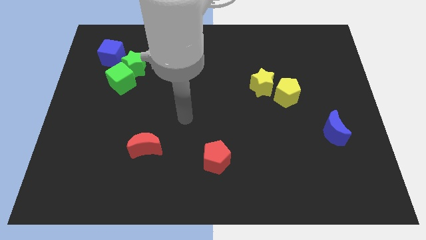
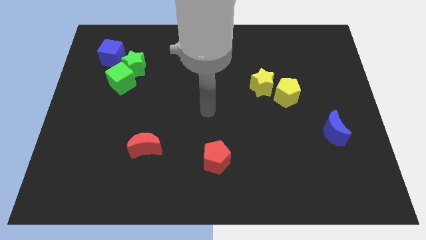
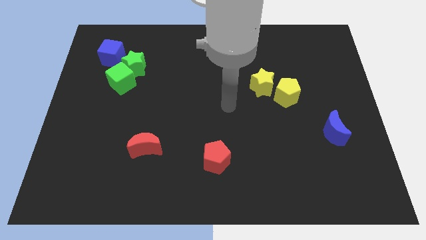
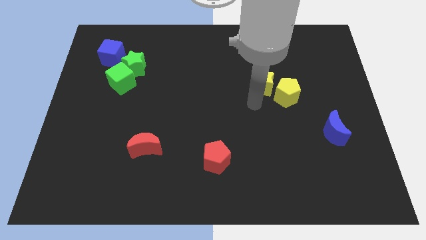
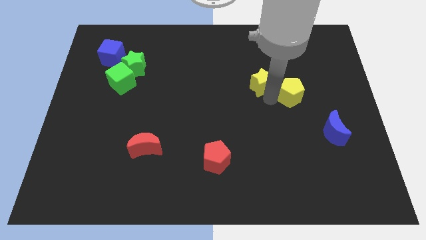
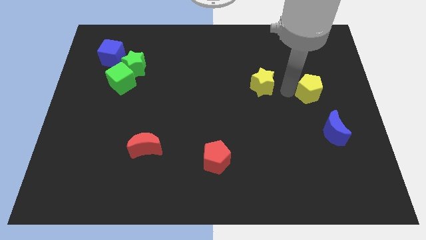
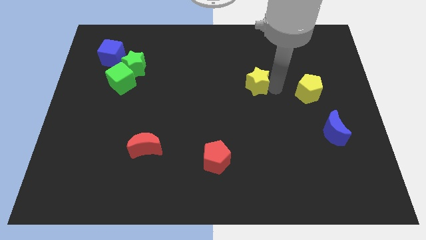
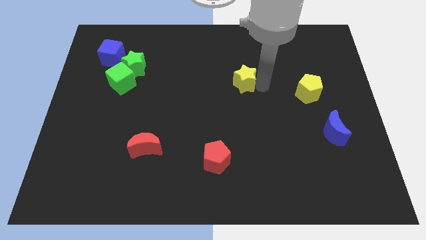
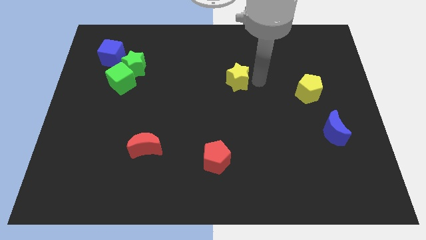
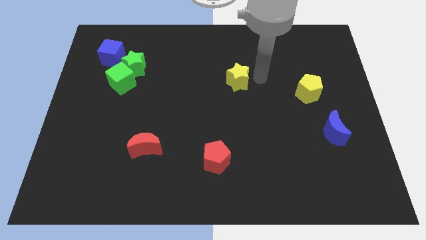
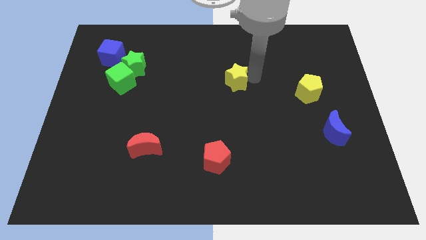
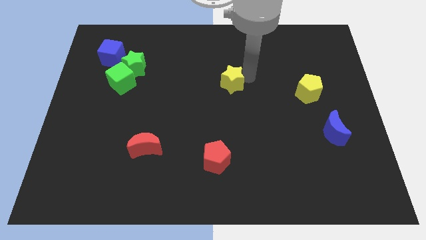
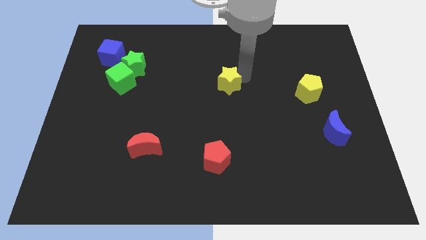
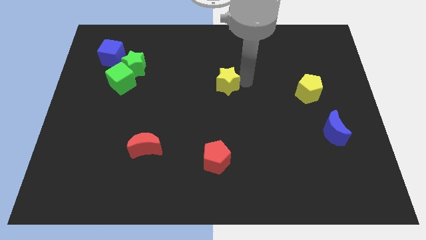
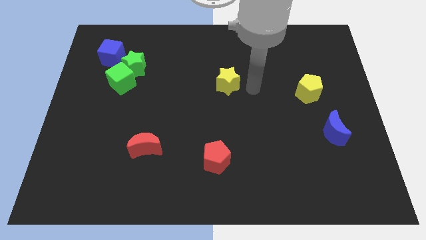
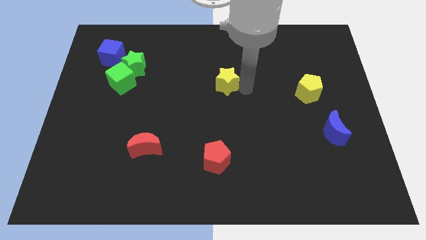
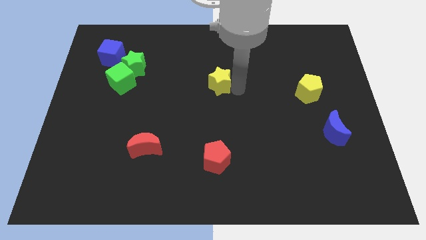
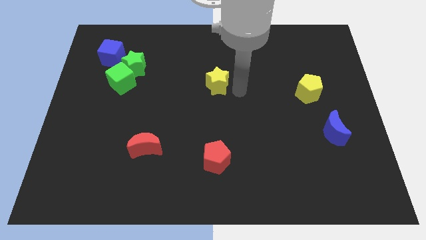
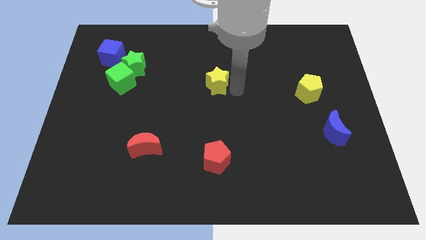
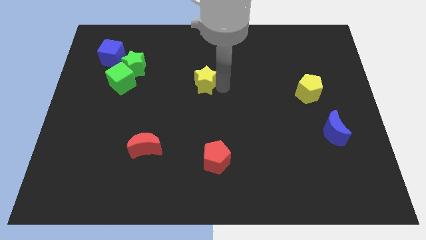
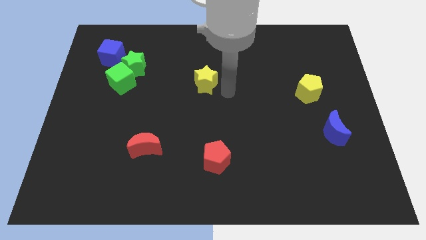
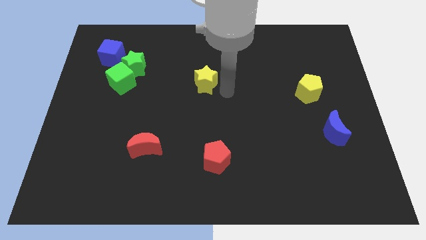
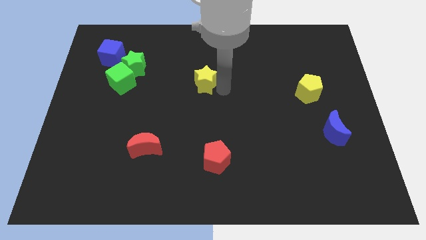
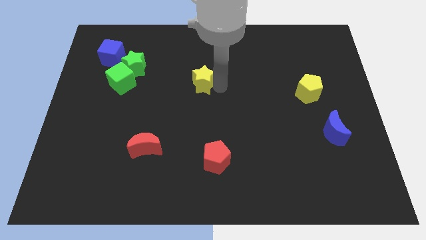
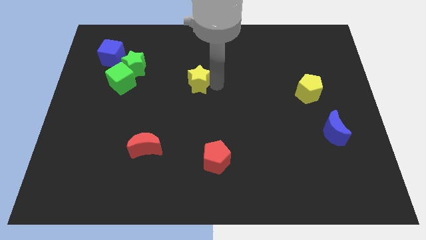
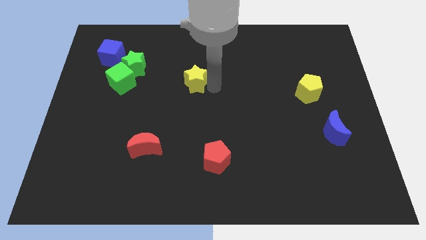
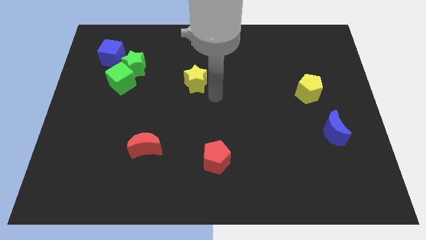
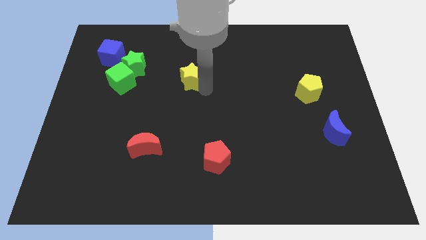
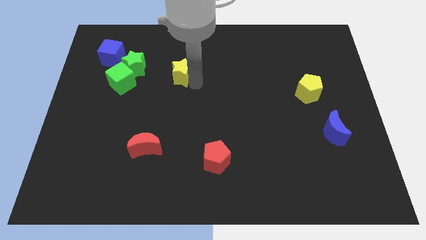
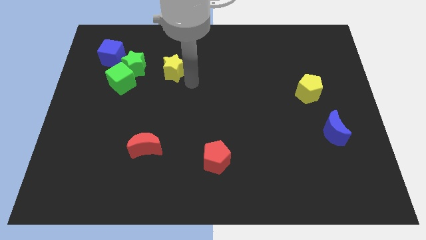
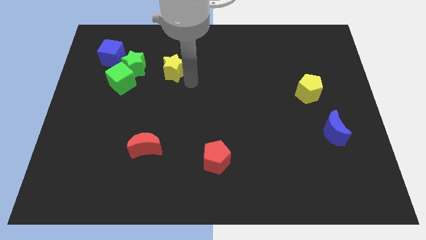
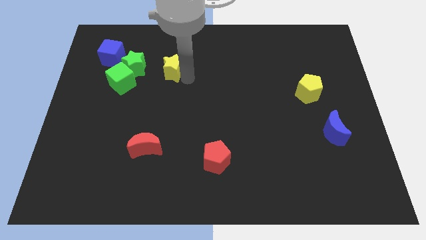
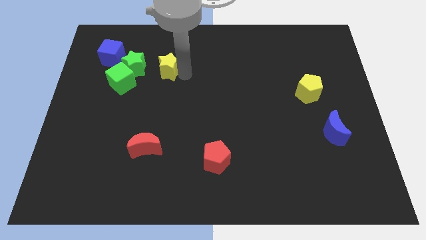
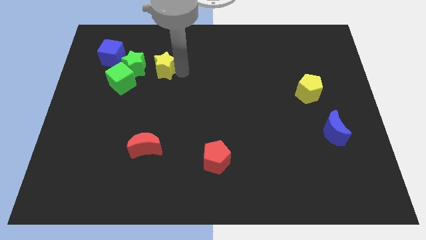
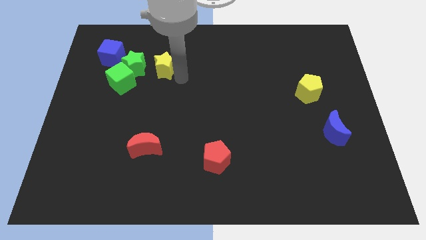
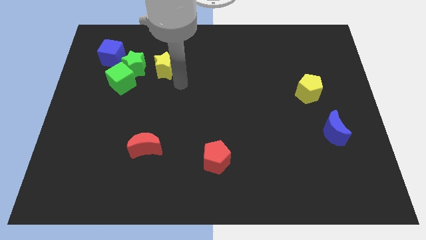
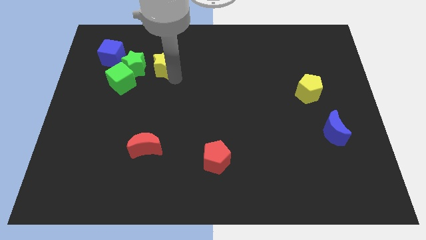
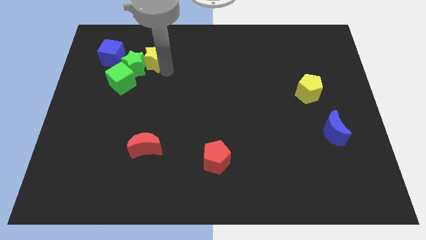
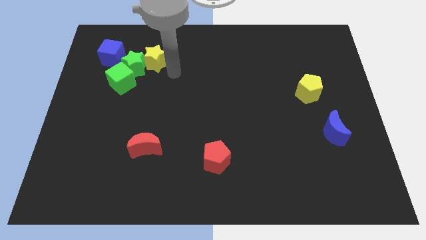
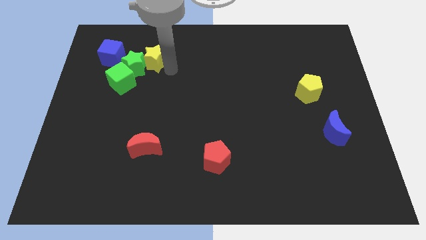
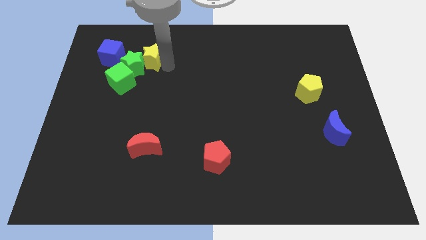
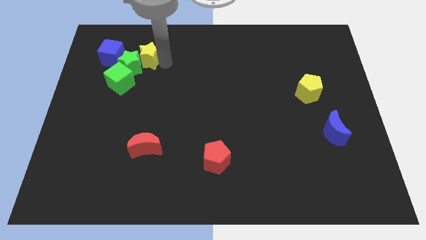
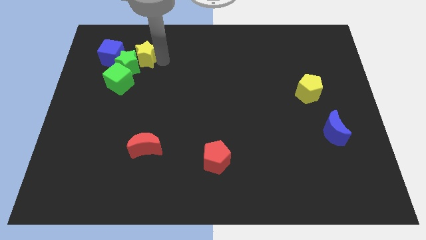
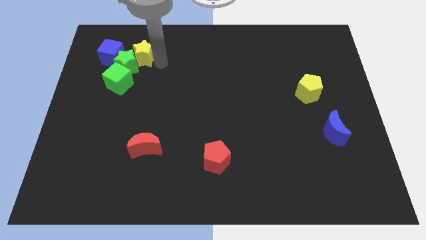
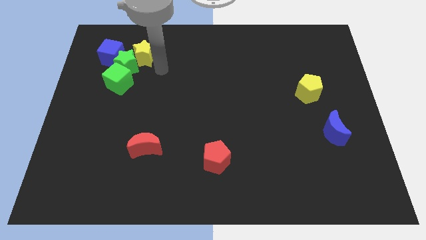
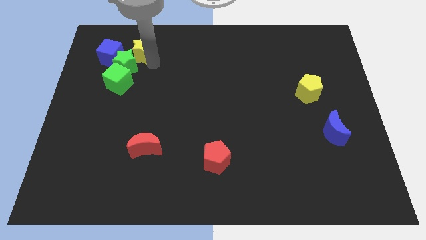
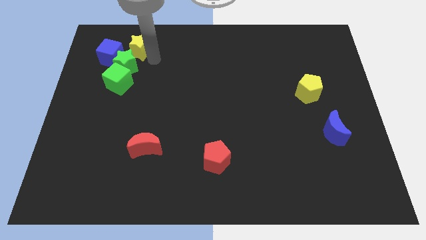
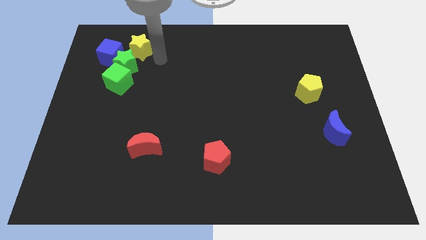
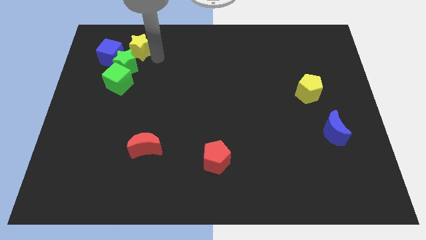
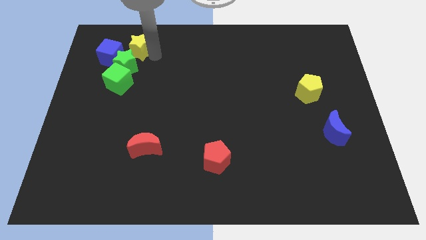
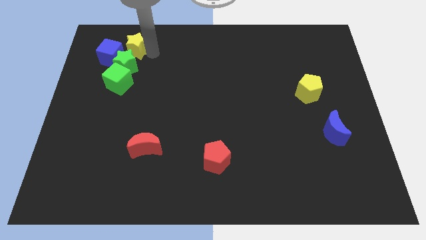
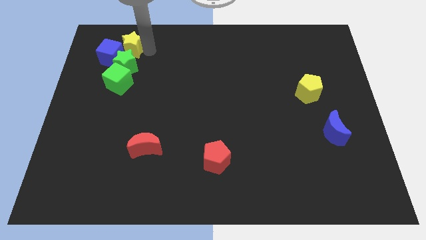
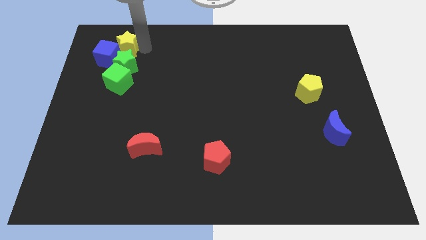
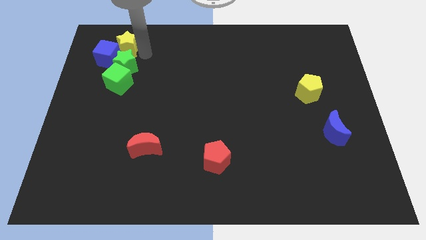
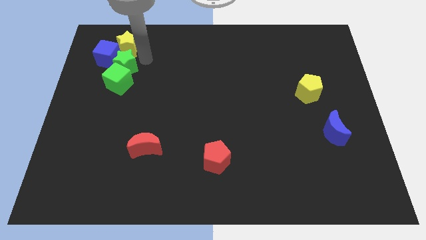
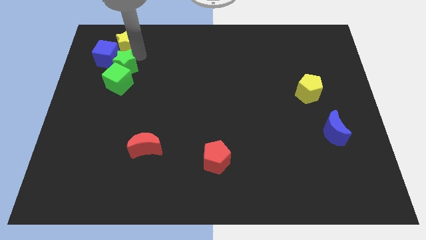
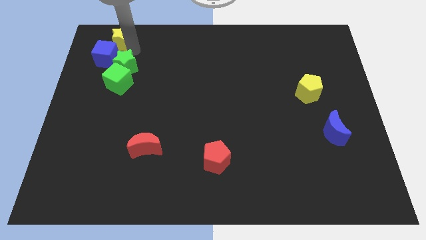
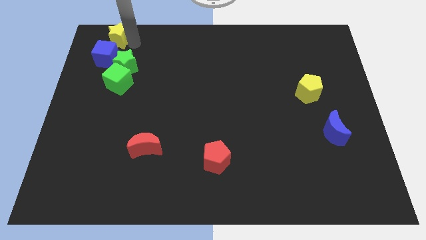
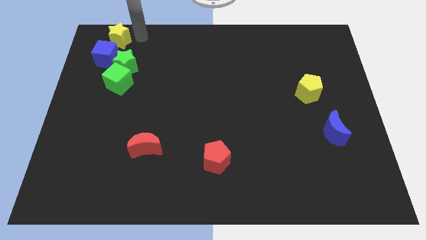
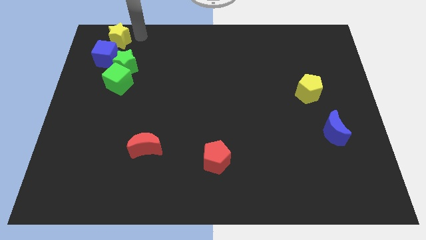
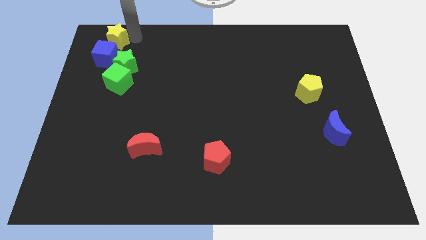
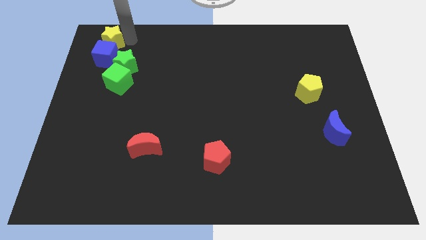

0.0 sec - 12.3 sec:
put the yellow star to the upper left corner
